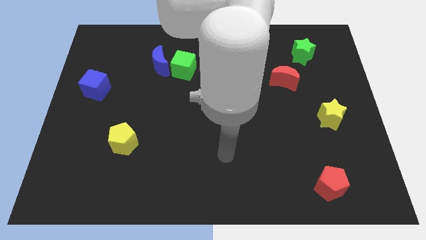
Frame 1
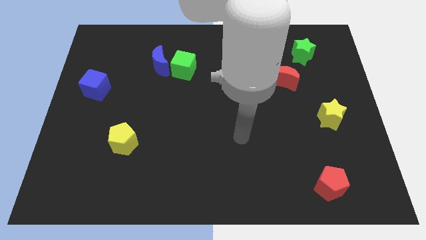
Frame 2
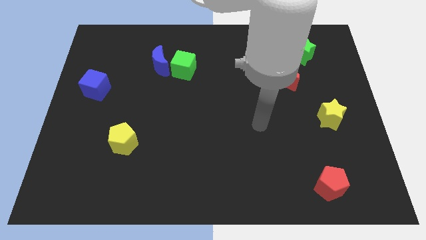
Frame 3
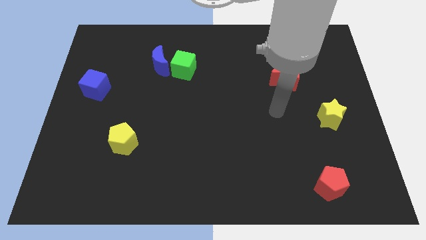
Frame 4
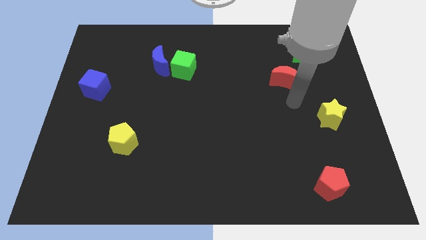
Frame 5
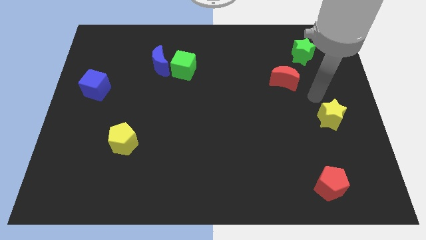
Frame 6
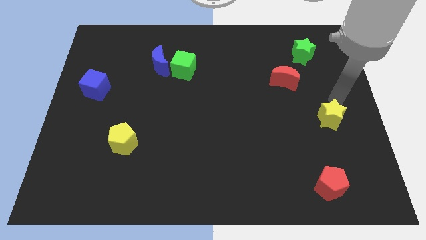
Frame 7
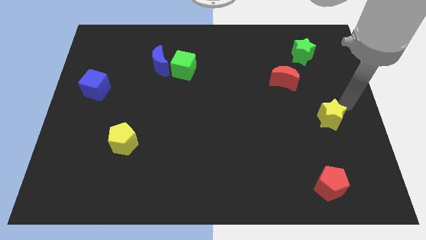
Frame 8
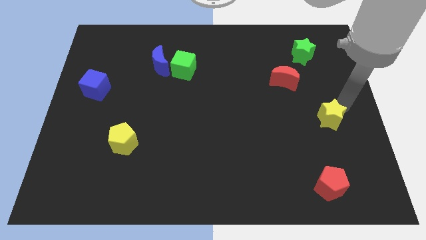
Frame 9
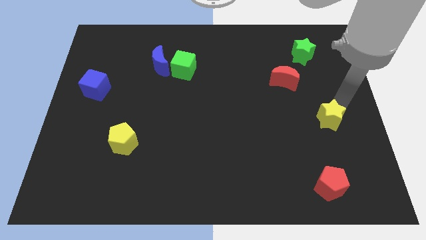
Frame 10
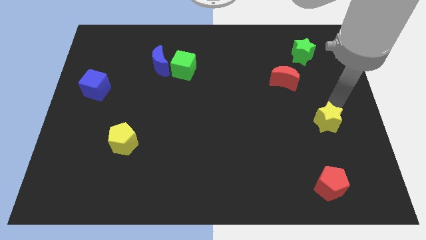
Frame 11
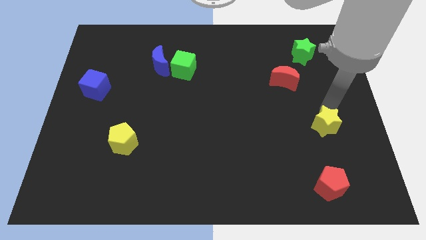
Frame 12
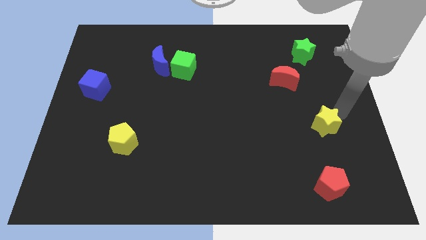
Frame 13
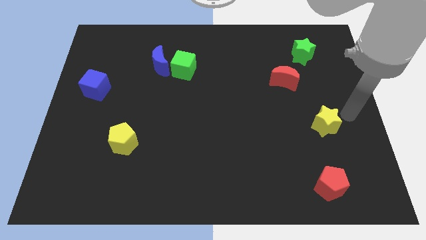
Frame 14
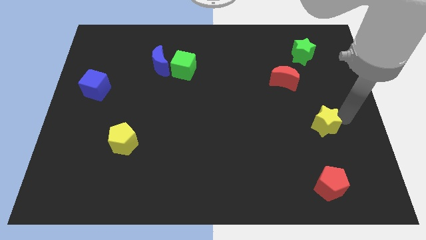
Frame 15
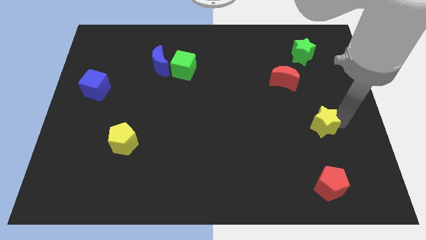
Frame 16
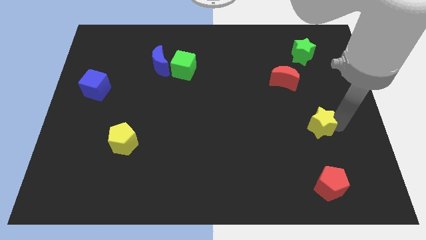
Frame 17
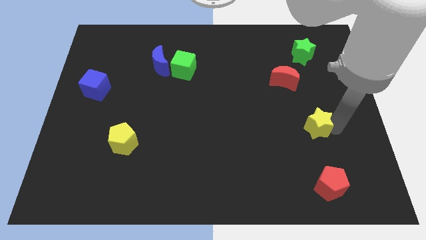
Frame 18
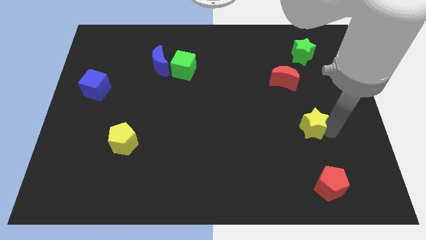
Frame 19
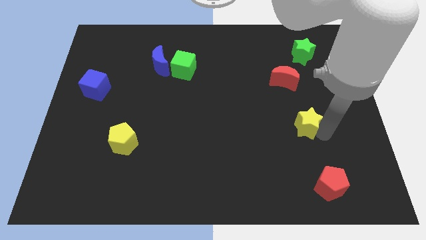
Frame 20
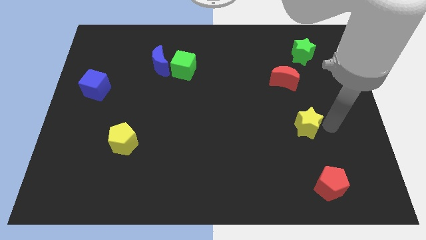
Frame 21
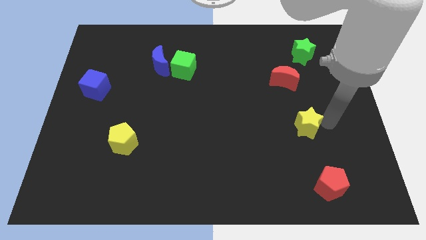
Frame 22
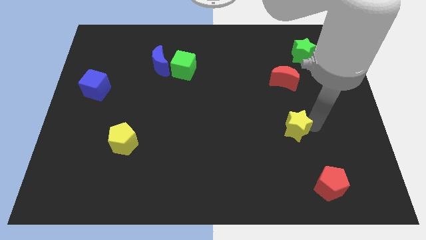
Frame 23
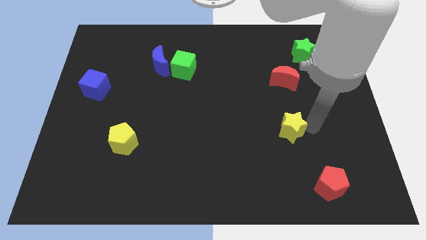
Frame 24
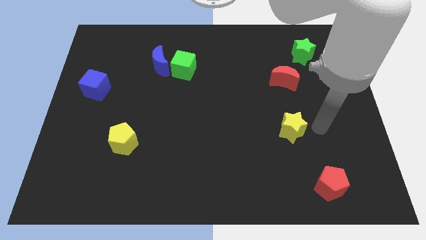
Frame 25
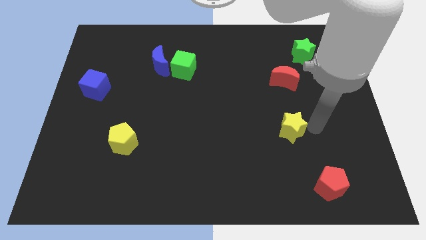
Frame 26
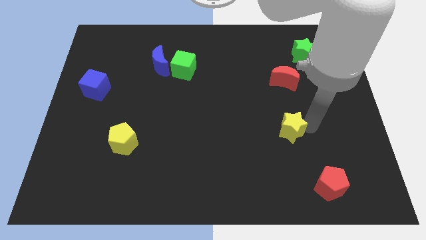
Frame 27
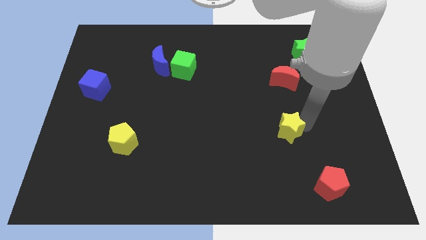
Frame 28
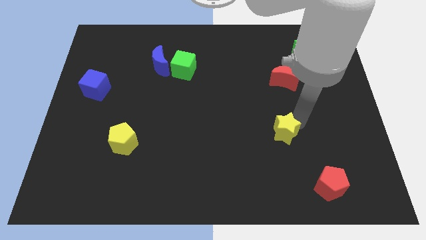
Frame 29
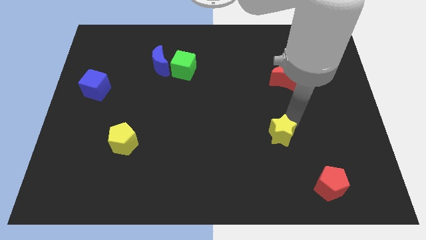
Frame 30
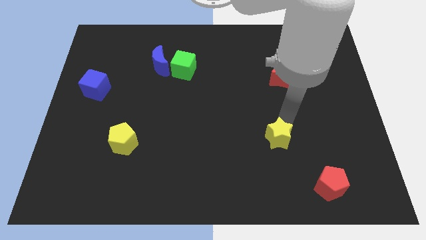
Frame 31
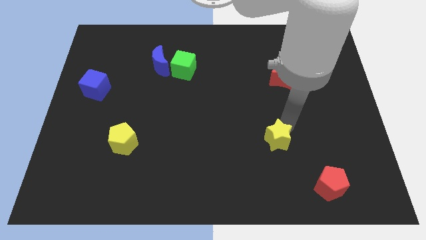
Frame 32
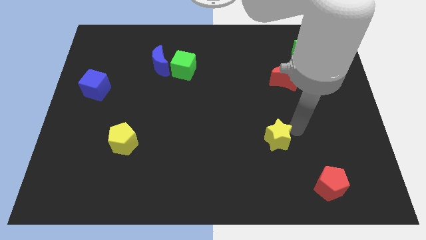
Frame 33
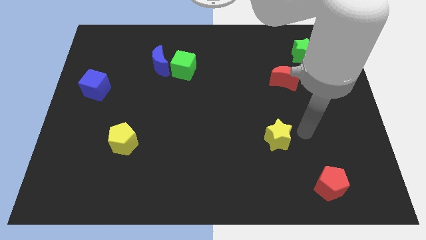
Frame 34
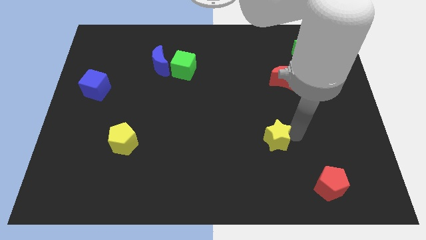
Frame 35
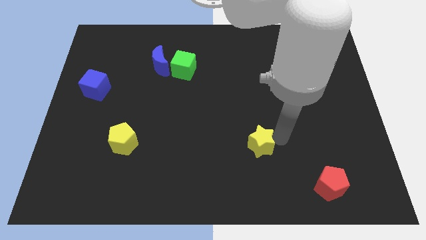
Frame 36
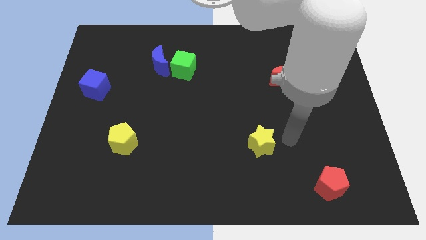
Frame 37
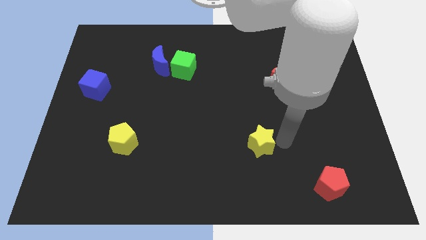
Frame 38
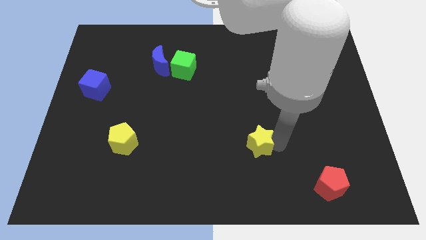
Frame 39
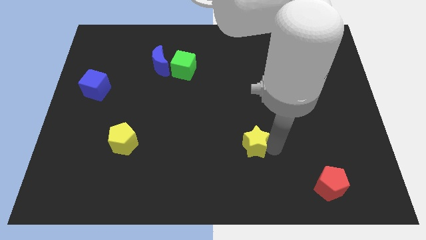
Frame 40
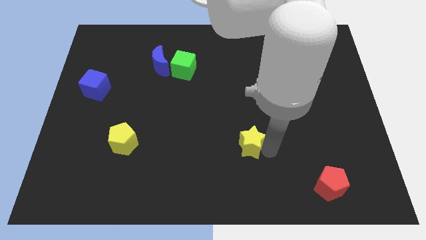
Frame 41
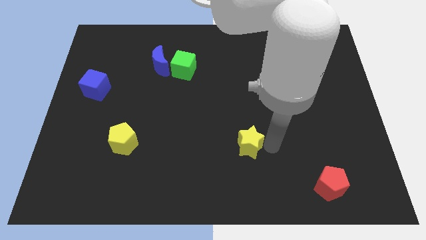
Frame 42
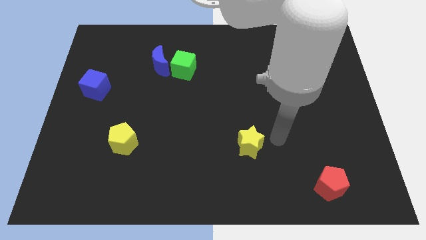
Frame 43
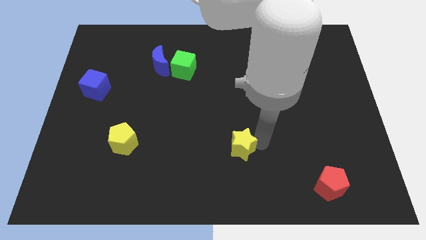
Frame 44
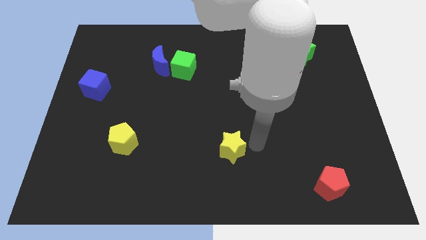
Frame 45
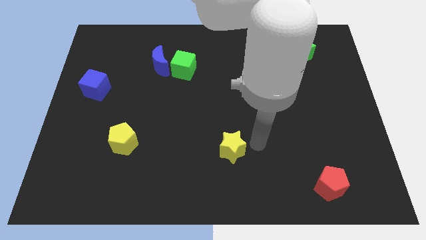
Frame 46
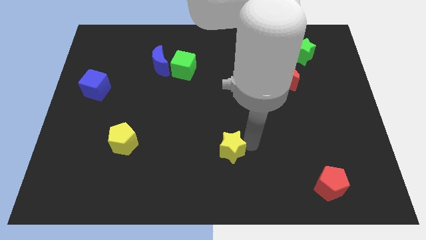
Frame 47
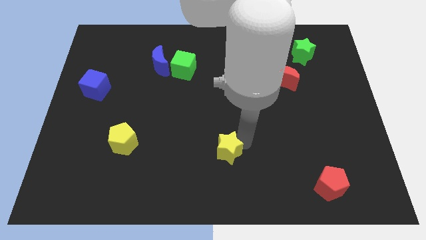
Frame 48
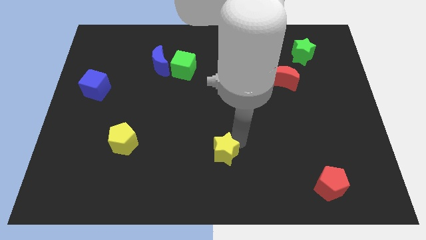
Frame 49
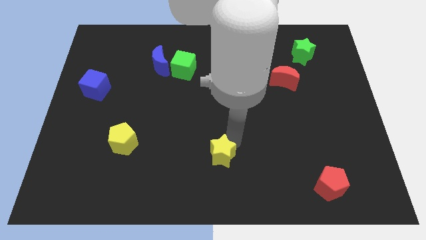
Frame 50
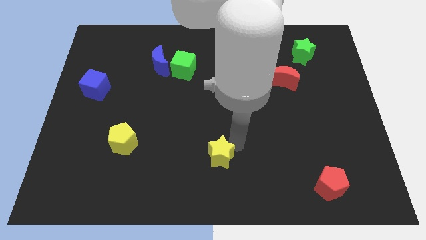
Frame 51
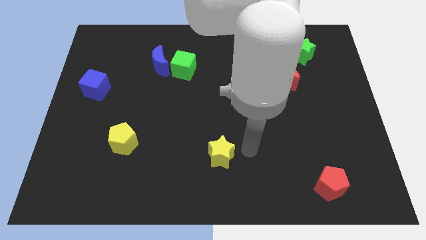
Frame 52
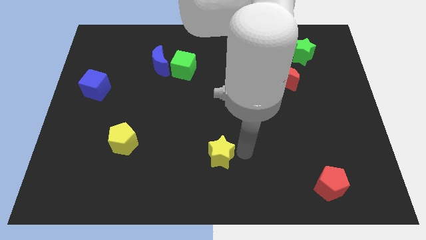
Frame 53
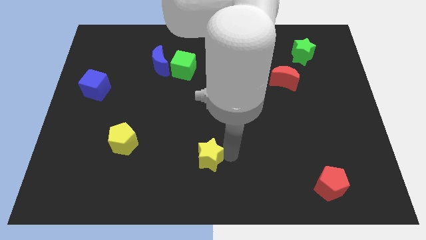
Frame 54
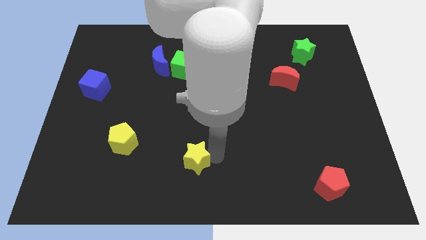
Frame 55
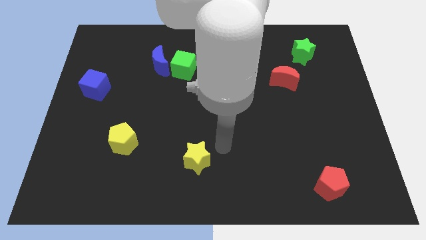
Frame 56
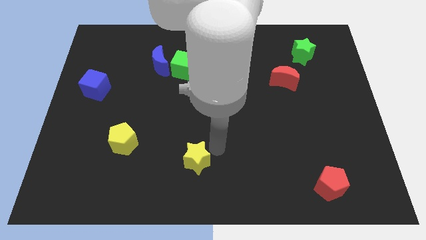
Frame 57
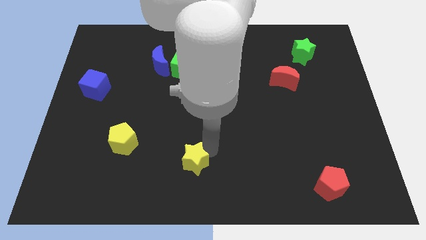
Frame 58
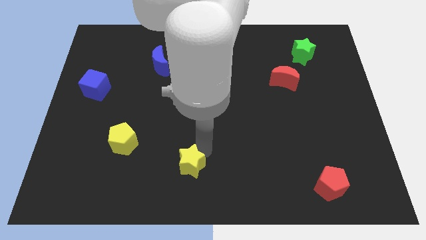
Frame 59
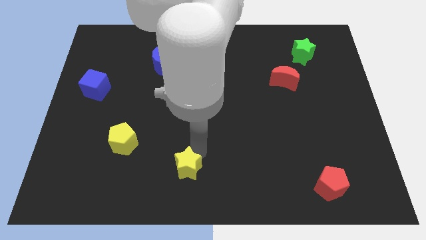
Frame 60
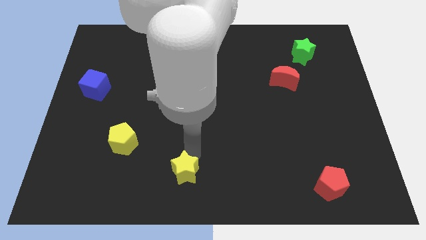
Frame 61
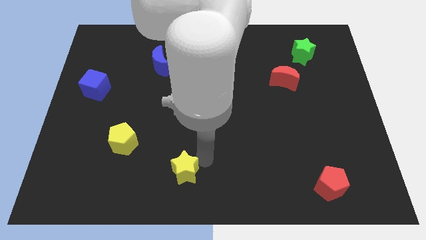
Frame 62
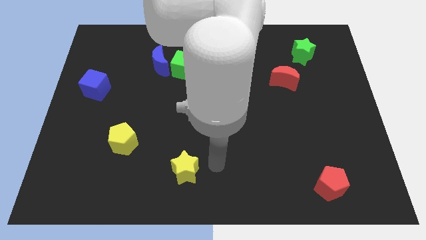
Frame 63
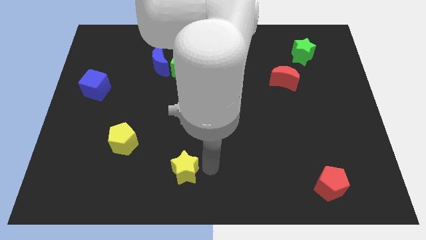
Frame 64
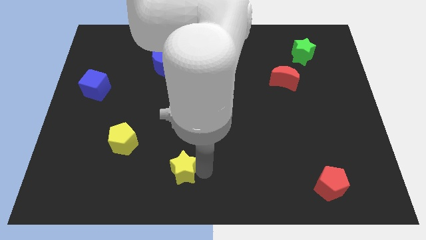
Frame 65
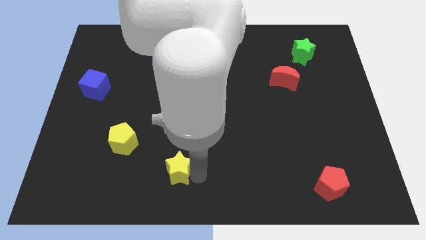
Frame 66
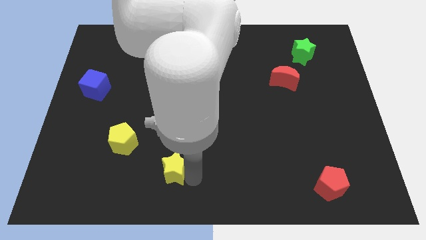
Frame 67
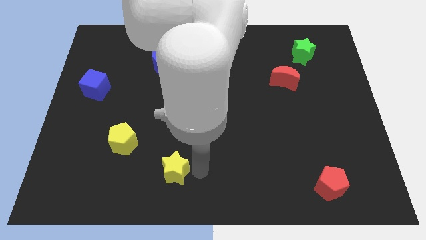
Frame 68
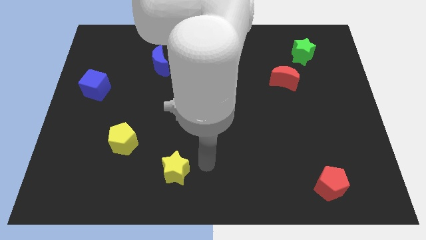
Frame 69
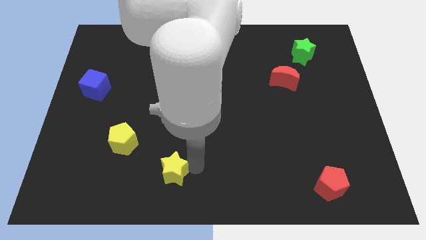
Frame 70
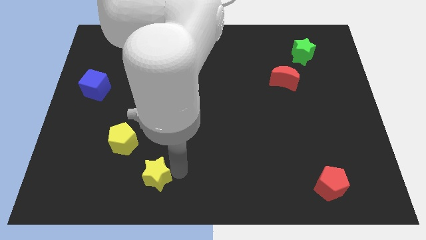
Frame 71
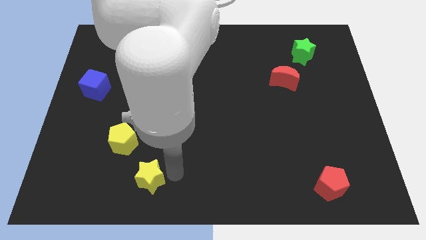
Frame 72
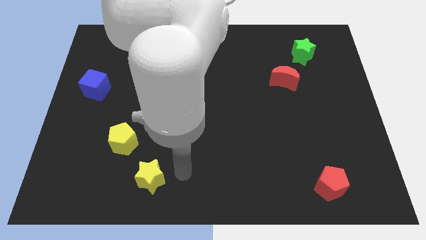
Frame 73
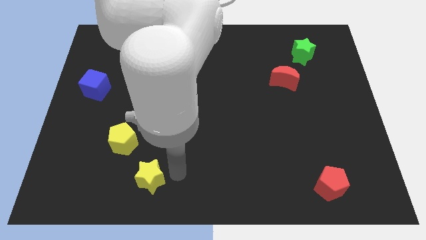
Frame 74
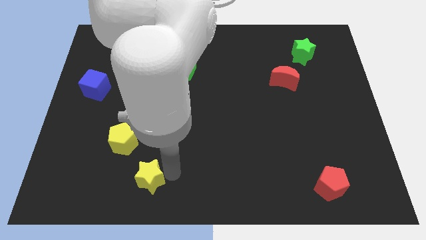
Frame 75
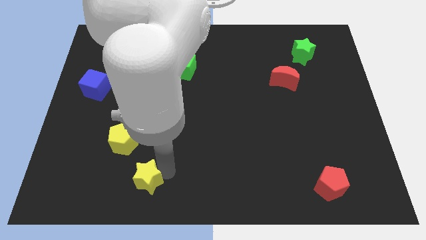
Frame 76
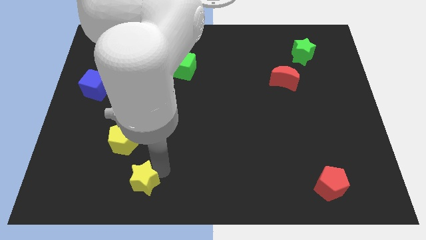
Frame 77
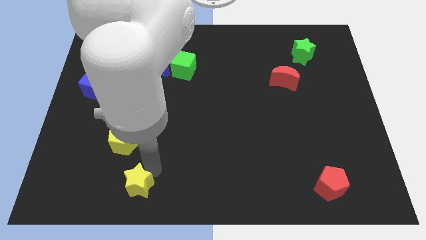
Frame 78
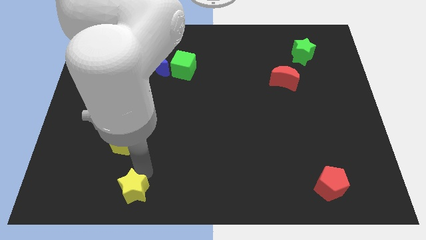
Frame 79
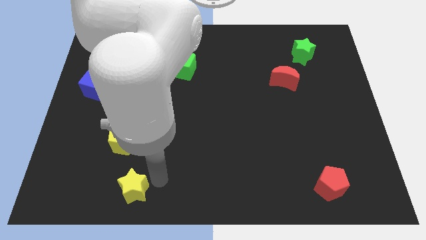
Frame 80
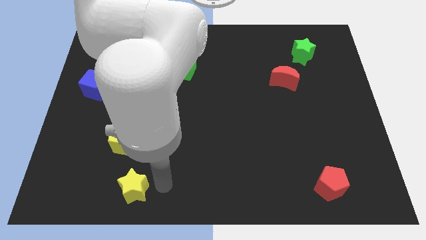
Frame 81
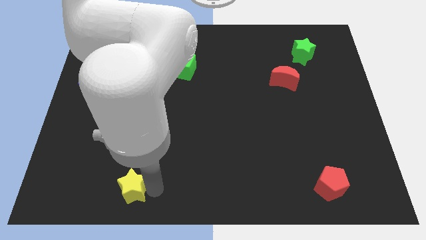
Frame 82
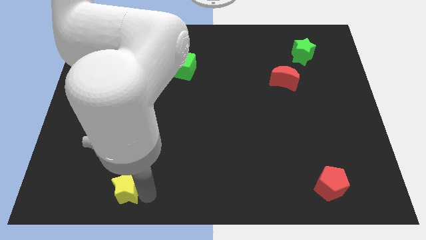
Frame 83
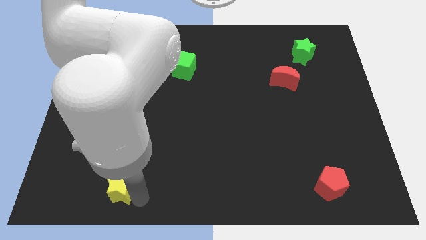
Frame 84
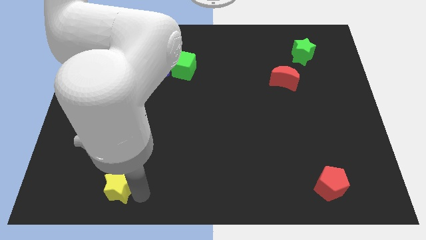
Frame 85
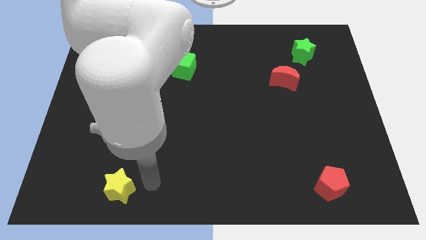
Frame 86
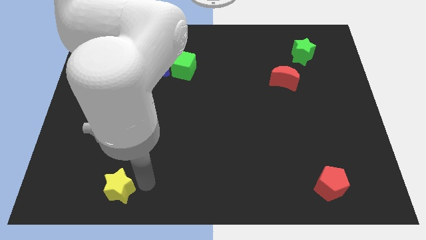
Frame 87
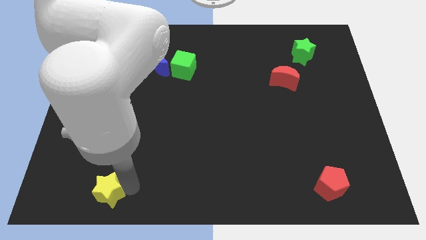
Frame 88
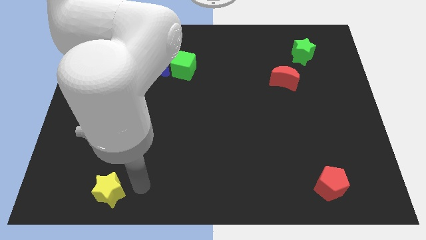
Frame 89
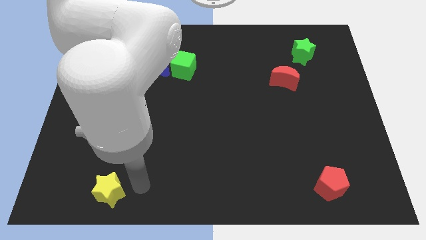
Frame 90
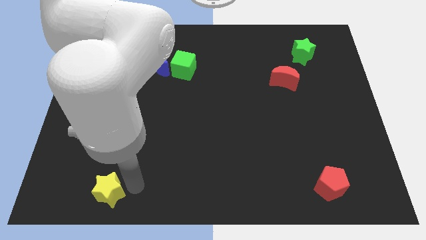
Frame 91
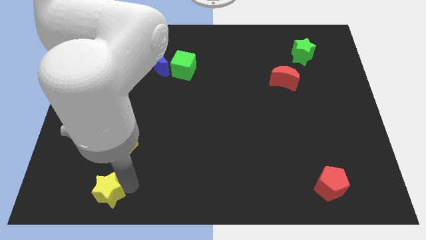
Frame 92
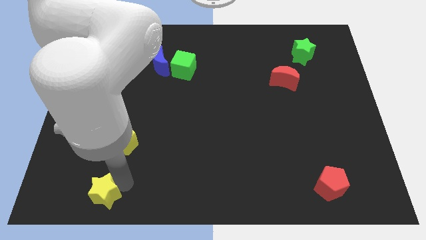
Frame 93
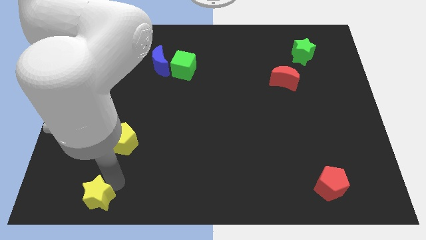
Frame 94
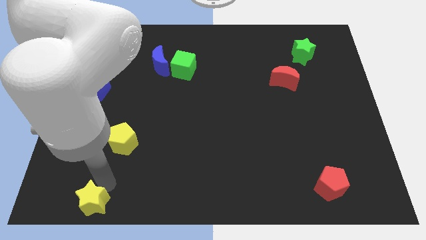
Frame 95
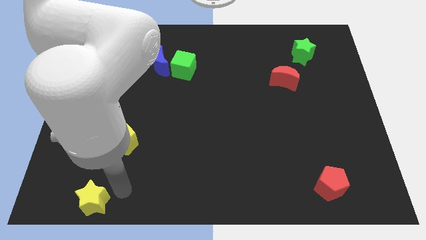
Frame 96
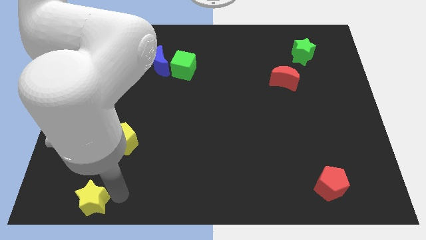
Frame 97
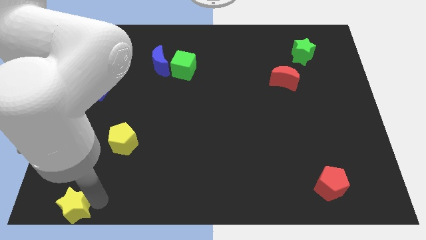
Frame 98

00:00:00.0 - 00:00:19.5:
push the yellow star to the bottom left of the board
